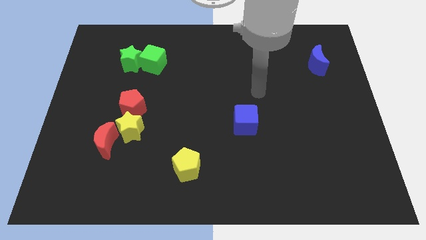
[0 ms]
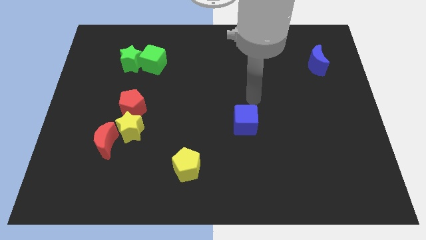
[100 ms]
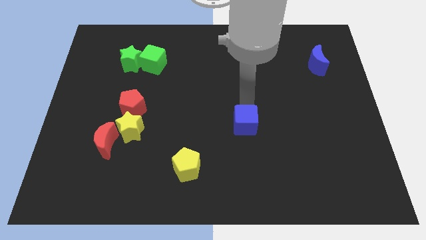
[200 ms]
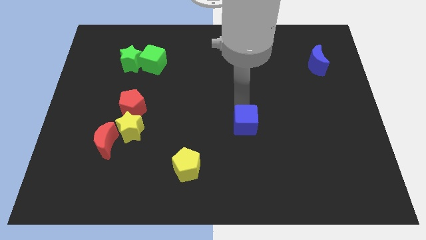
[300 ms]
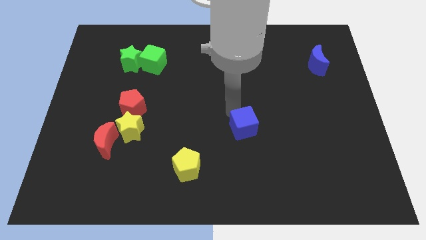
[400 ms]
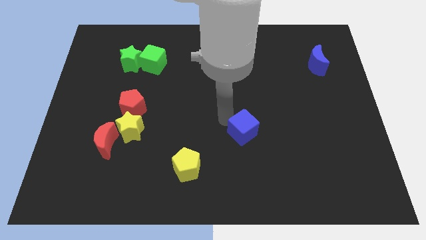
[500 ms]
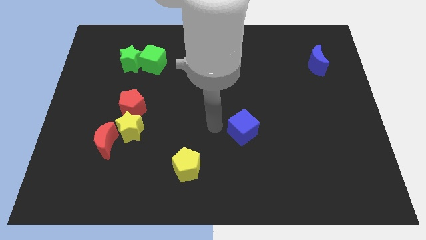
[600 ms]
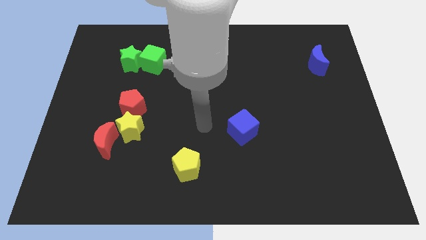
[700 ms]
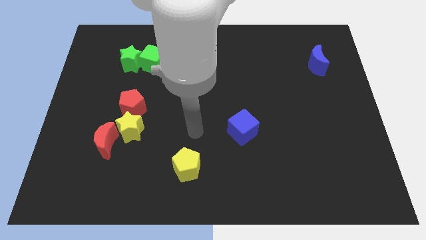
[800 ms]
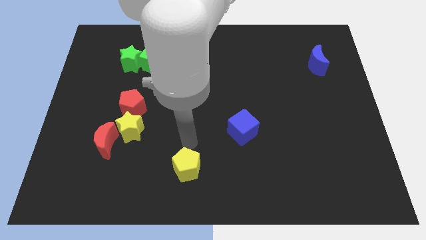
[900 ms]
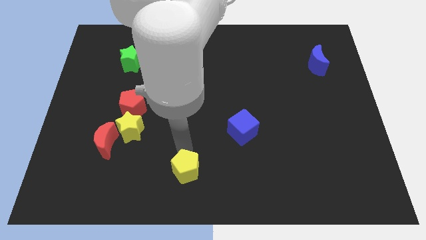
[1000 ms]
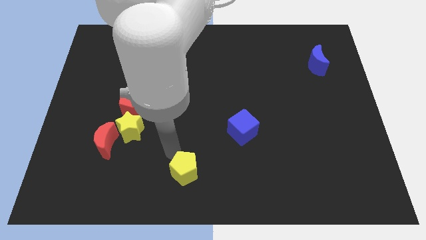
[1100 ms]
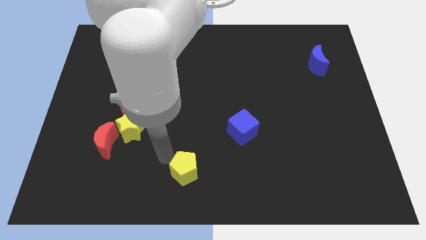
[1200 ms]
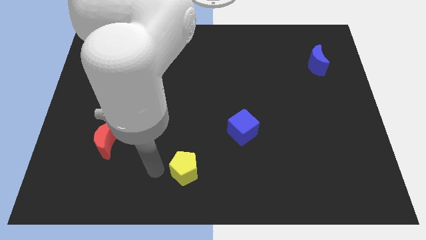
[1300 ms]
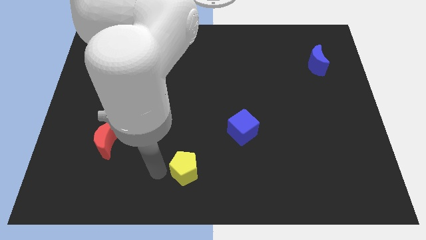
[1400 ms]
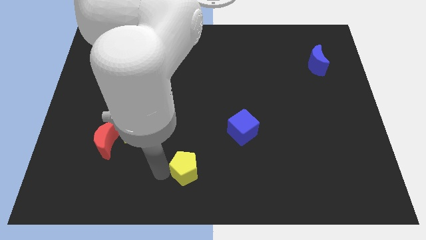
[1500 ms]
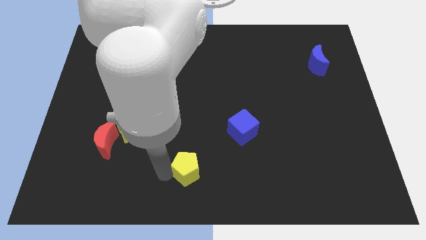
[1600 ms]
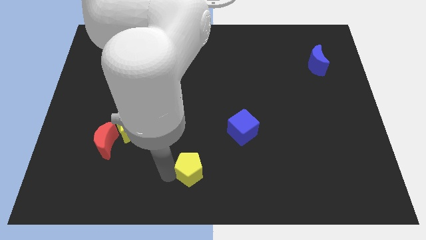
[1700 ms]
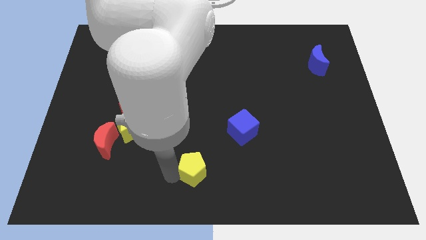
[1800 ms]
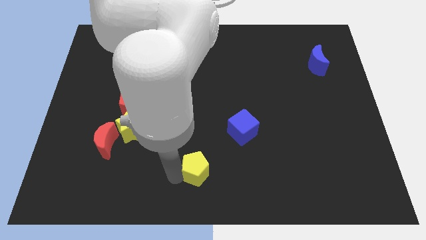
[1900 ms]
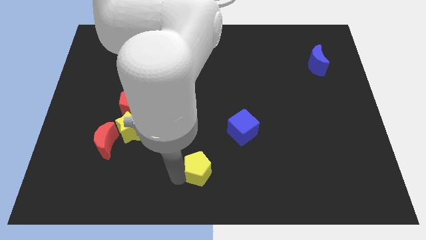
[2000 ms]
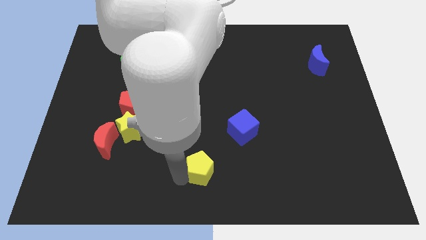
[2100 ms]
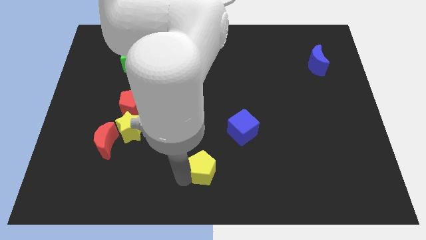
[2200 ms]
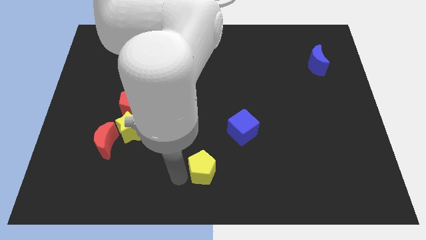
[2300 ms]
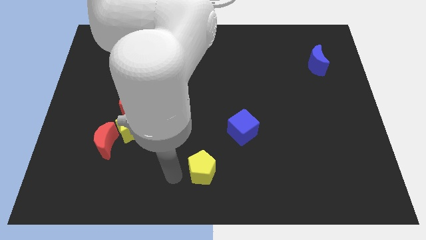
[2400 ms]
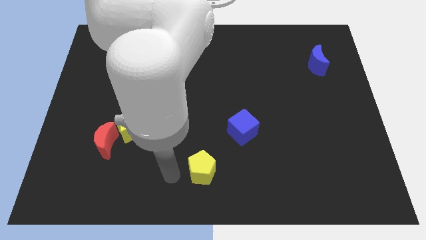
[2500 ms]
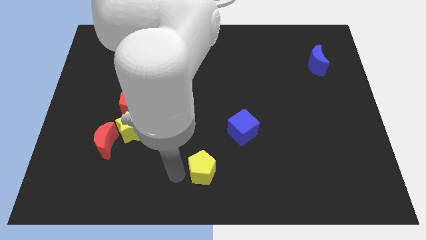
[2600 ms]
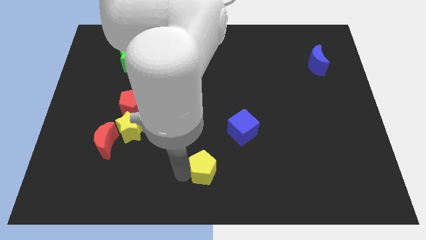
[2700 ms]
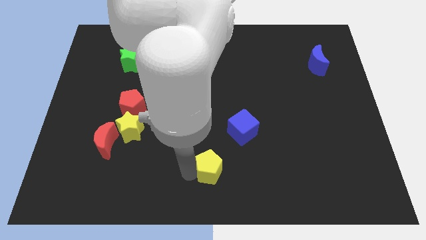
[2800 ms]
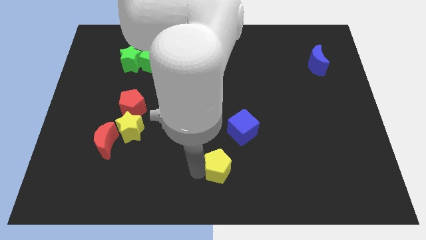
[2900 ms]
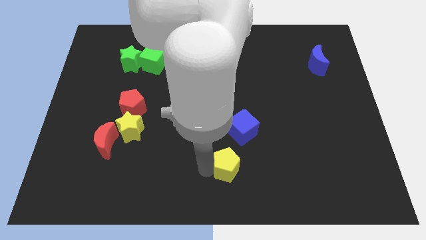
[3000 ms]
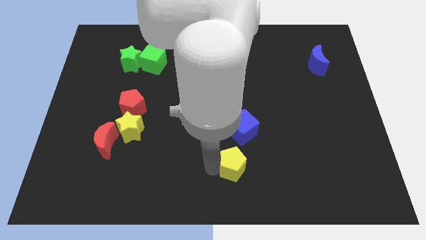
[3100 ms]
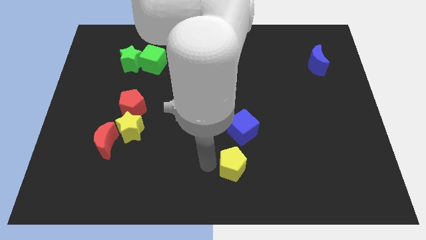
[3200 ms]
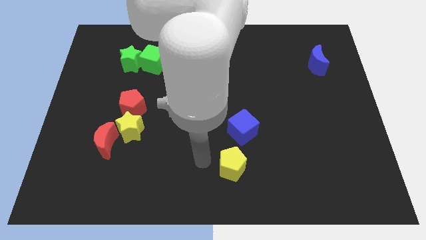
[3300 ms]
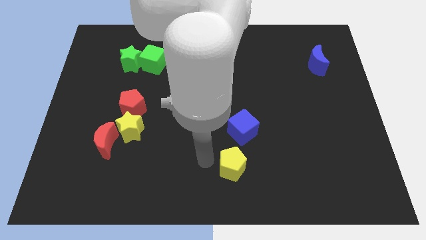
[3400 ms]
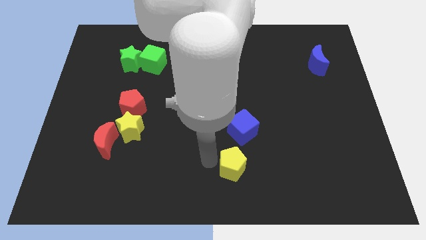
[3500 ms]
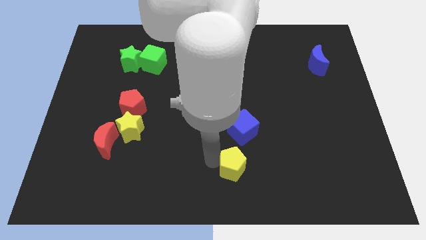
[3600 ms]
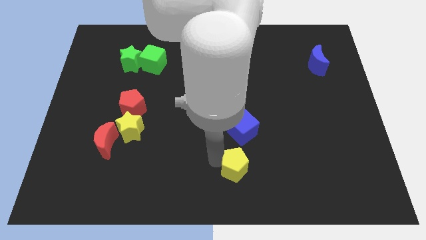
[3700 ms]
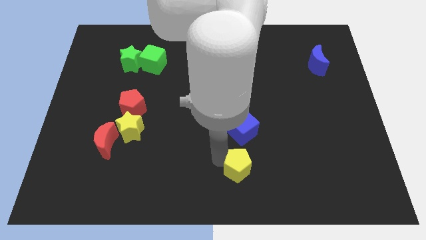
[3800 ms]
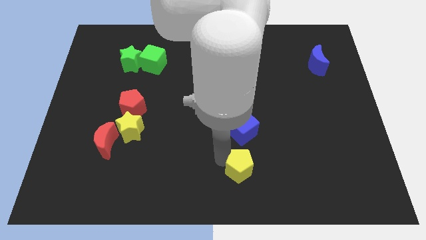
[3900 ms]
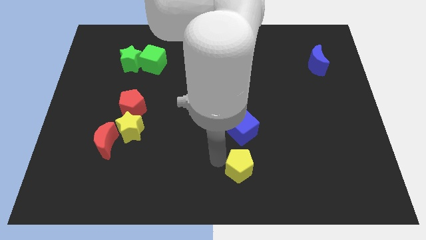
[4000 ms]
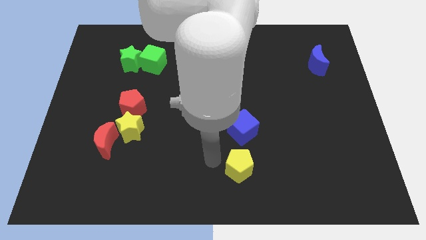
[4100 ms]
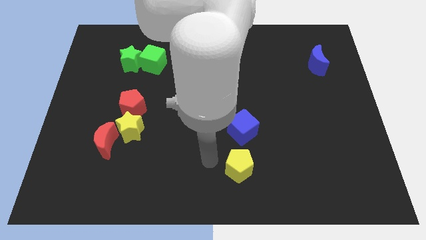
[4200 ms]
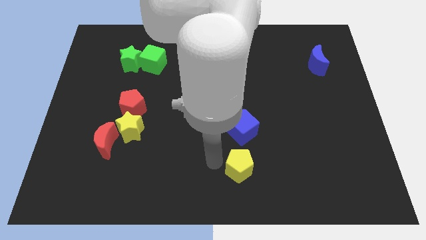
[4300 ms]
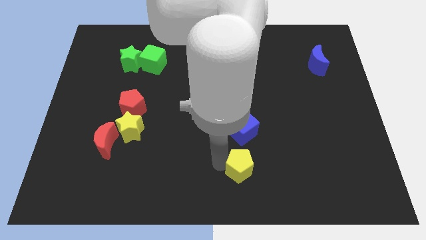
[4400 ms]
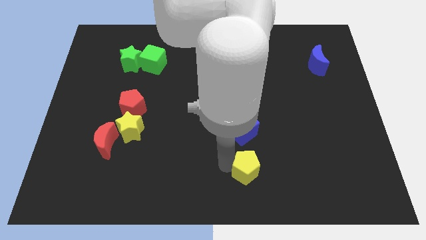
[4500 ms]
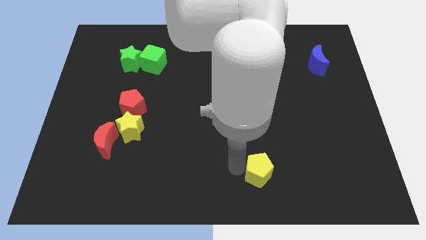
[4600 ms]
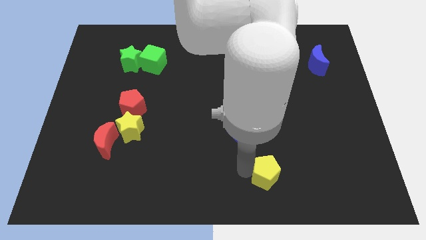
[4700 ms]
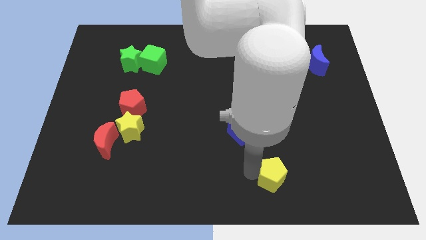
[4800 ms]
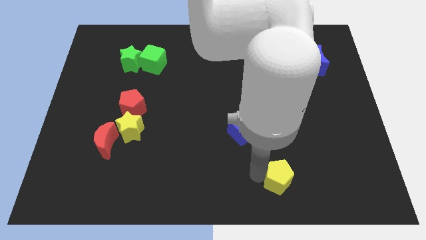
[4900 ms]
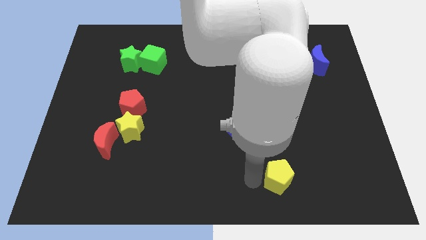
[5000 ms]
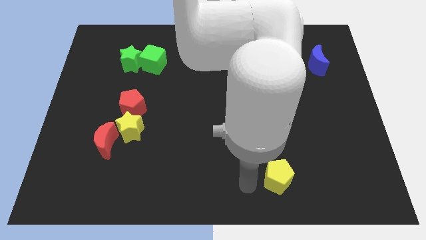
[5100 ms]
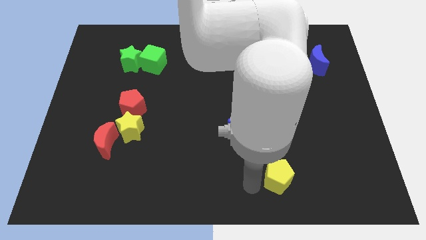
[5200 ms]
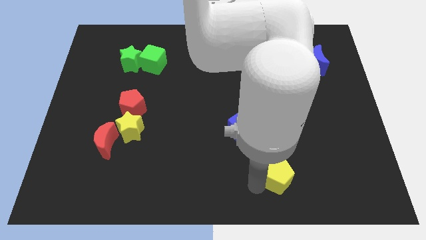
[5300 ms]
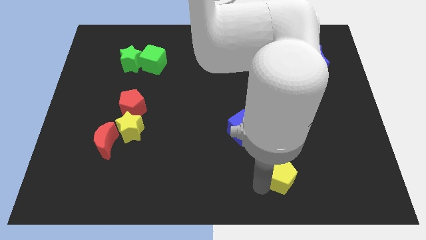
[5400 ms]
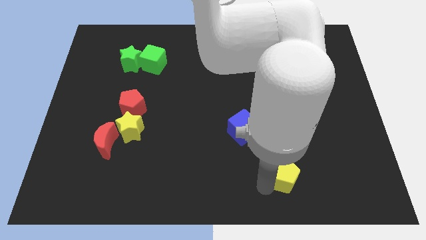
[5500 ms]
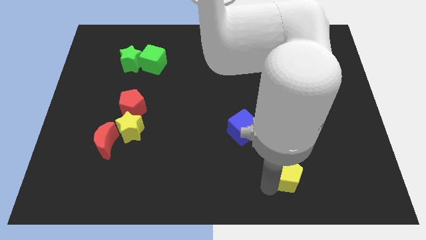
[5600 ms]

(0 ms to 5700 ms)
slide the yellow pentagon right

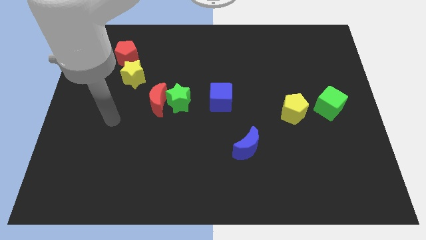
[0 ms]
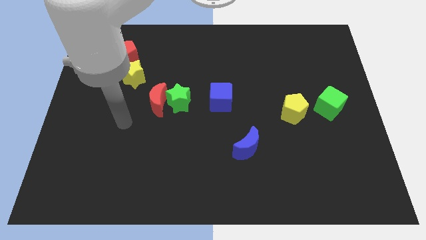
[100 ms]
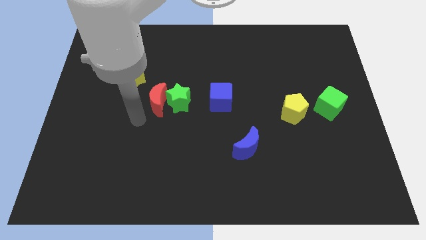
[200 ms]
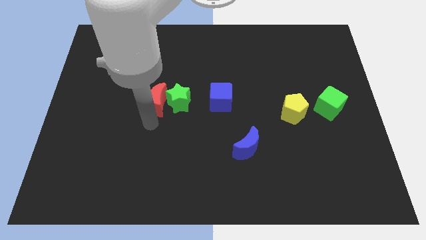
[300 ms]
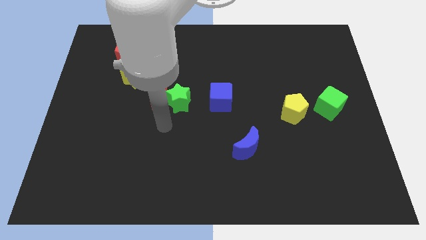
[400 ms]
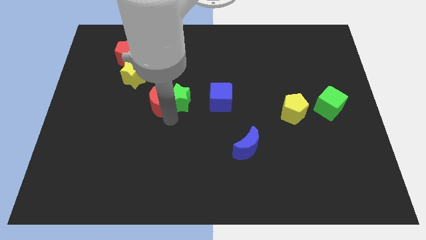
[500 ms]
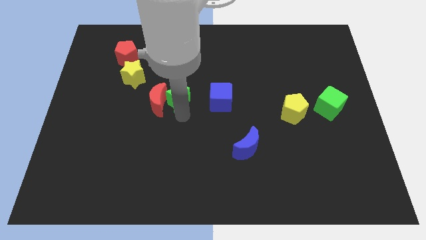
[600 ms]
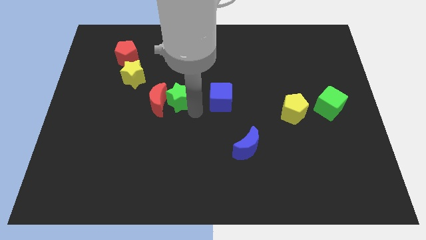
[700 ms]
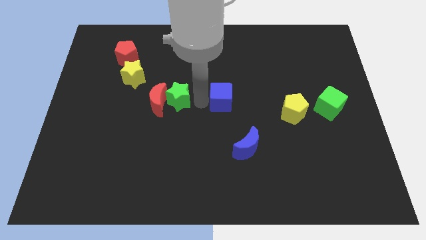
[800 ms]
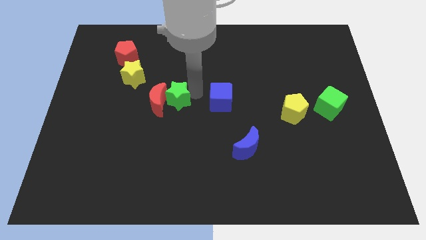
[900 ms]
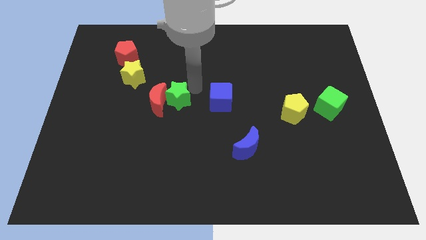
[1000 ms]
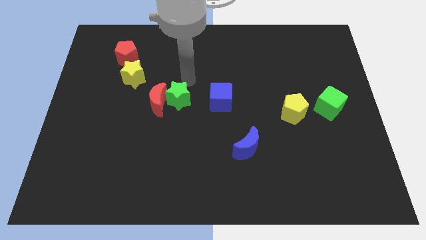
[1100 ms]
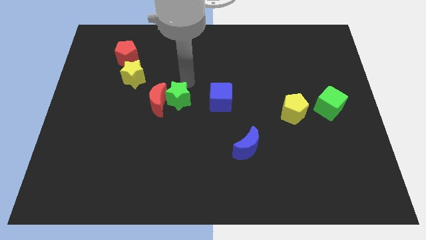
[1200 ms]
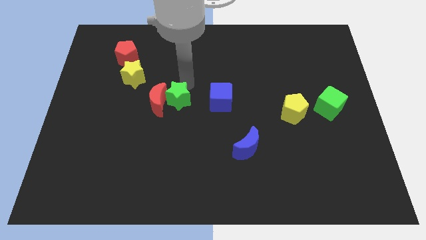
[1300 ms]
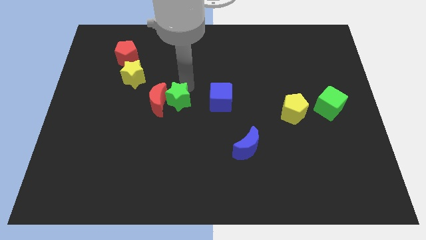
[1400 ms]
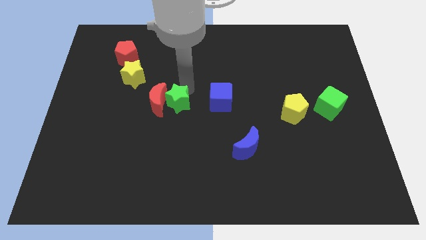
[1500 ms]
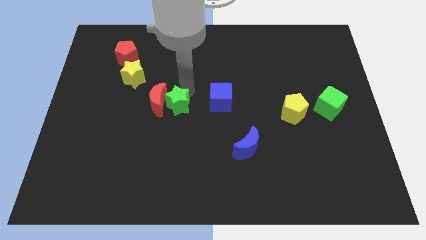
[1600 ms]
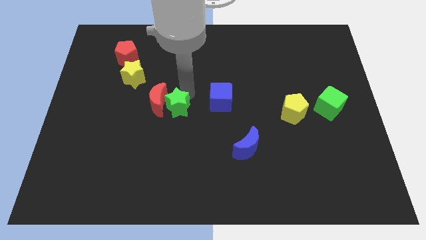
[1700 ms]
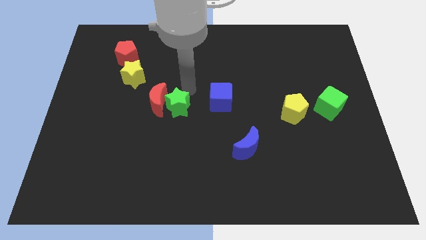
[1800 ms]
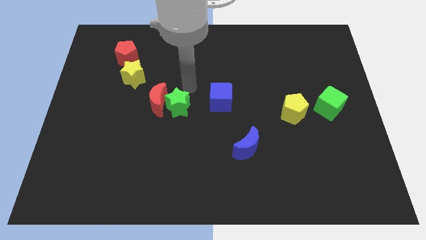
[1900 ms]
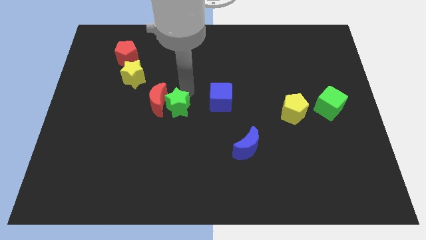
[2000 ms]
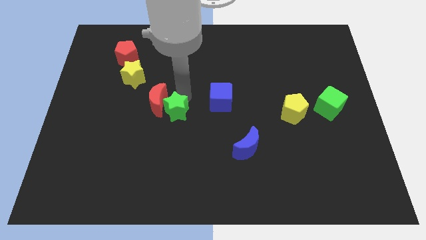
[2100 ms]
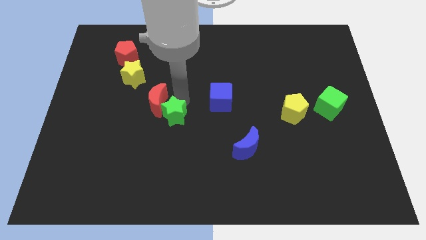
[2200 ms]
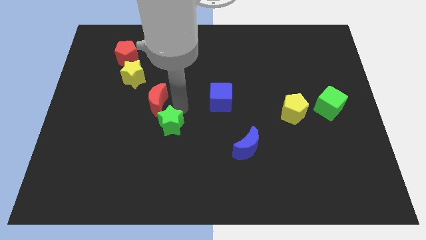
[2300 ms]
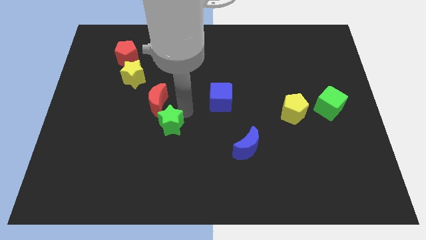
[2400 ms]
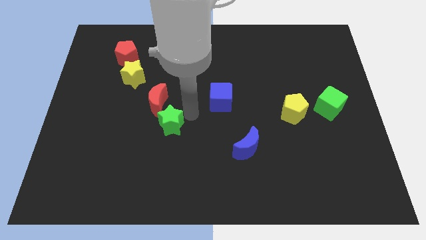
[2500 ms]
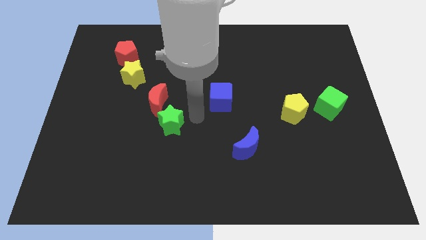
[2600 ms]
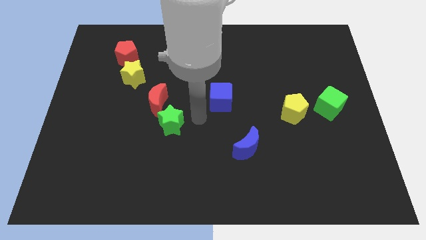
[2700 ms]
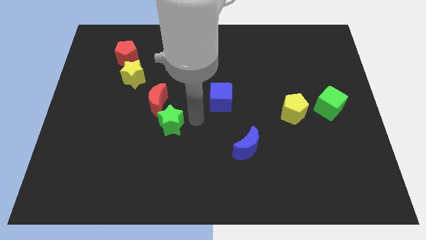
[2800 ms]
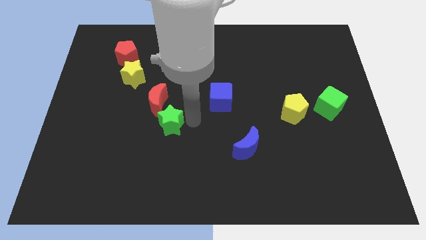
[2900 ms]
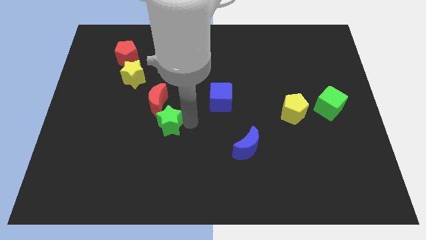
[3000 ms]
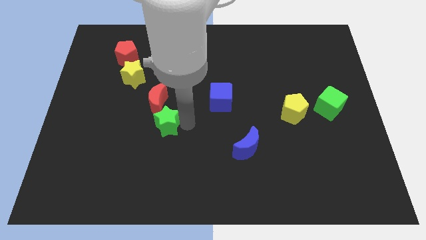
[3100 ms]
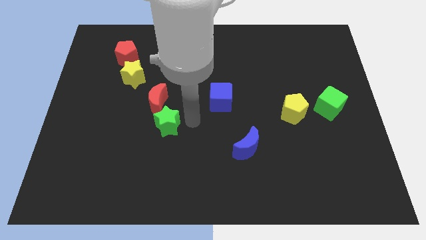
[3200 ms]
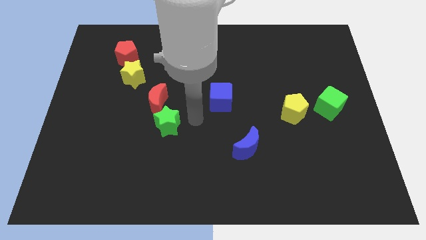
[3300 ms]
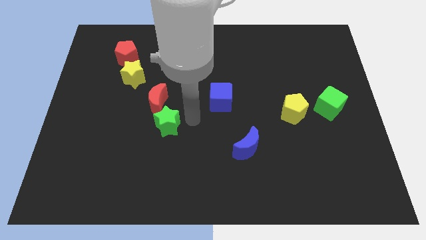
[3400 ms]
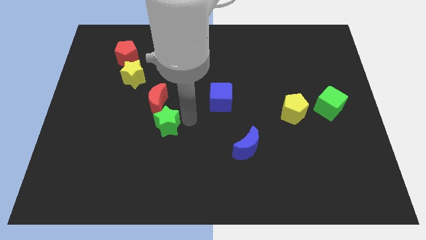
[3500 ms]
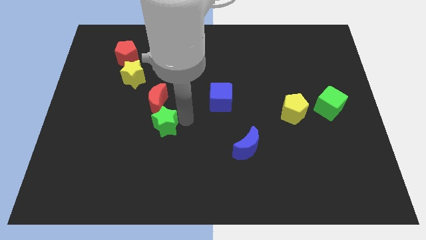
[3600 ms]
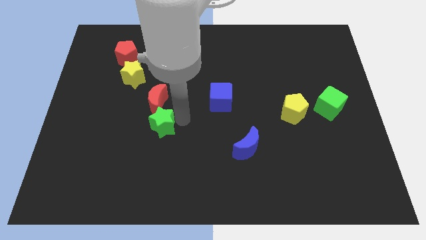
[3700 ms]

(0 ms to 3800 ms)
slightly slide the green star downwards and left
